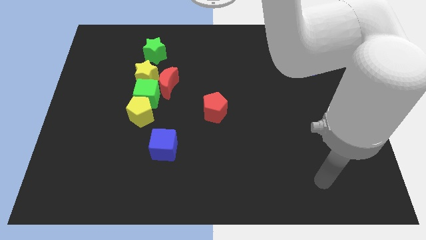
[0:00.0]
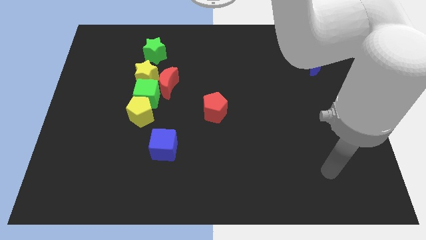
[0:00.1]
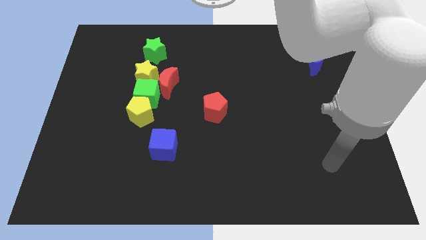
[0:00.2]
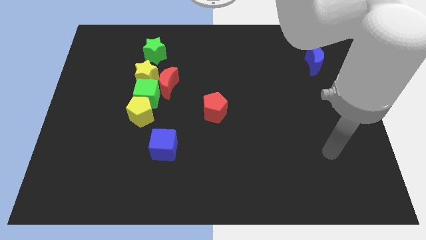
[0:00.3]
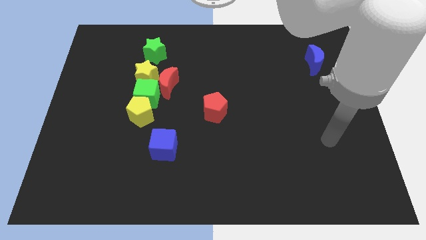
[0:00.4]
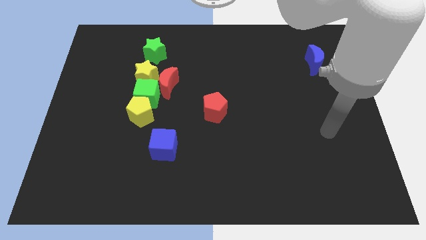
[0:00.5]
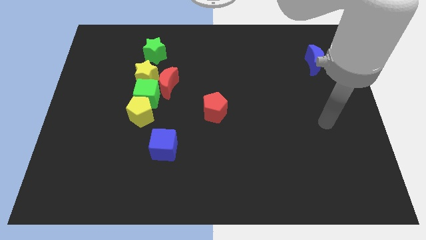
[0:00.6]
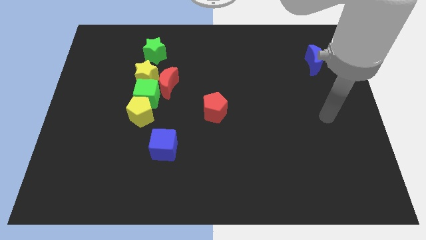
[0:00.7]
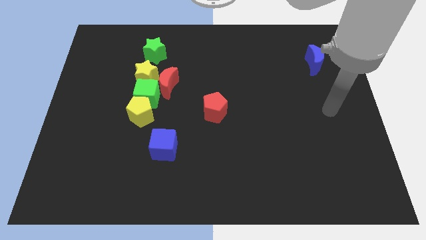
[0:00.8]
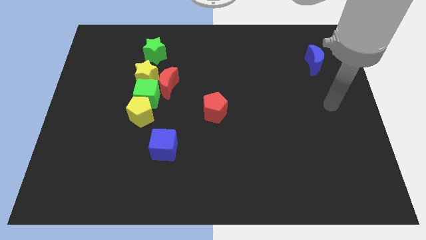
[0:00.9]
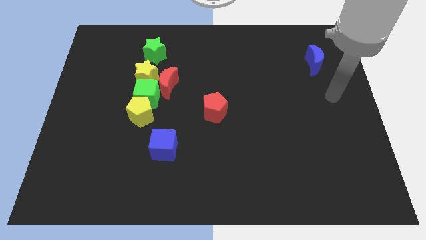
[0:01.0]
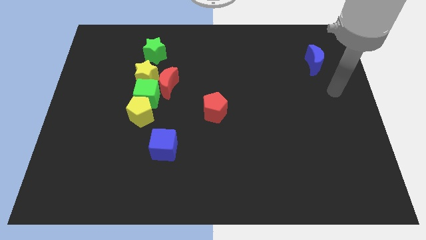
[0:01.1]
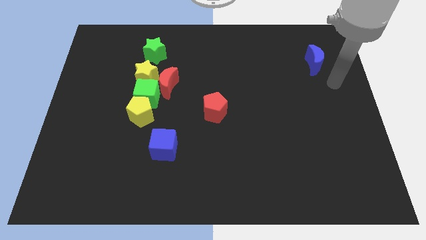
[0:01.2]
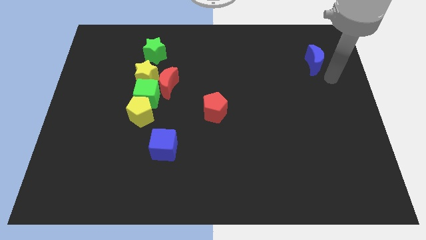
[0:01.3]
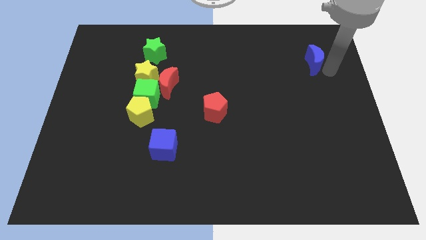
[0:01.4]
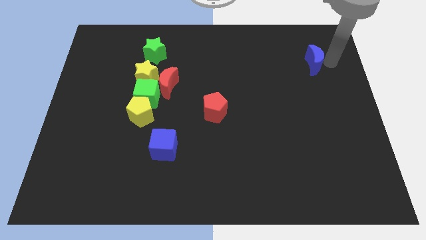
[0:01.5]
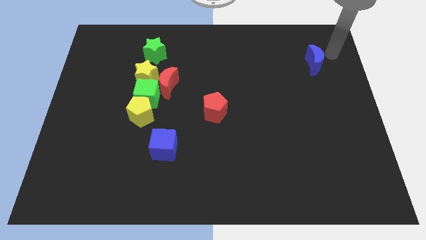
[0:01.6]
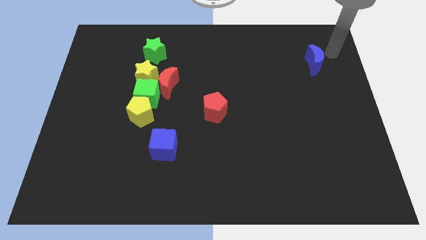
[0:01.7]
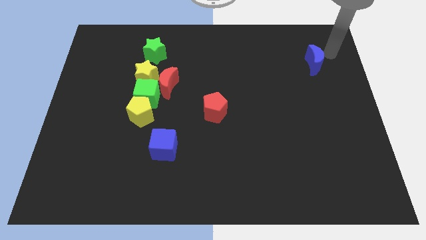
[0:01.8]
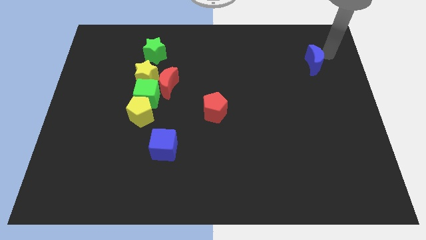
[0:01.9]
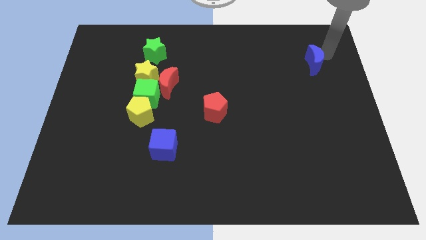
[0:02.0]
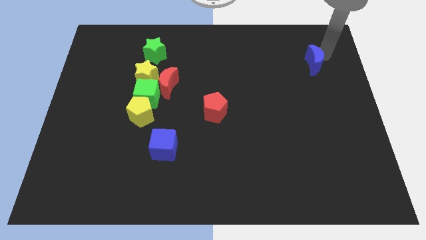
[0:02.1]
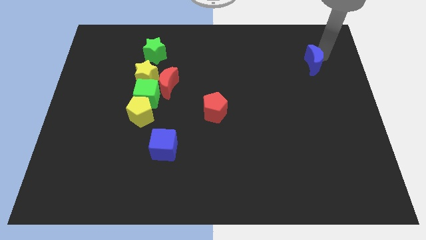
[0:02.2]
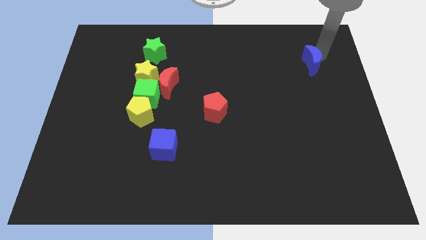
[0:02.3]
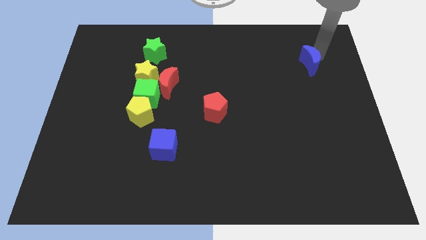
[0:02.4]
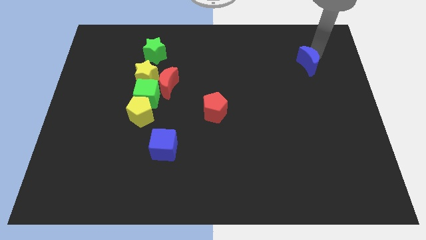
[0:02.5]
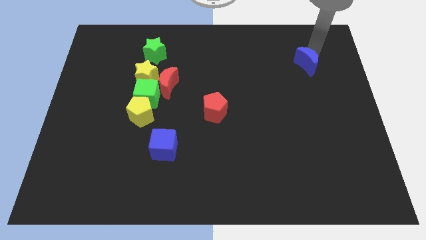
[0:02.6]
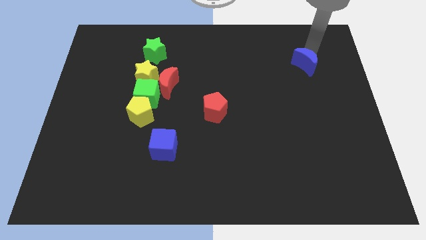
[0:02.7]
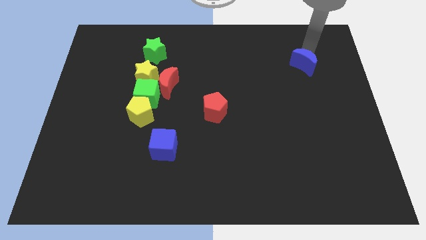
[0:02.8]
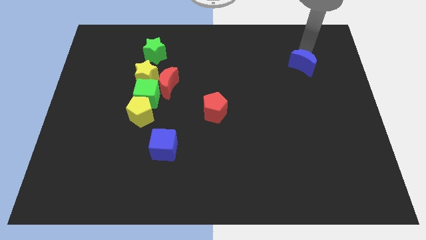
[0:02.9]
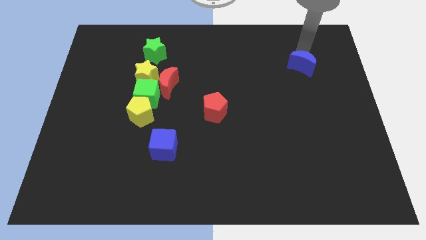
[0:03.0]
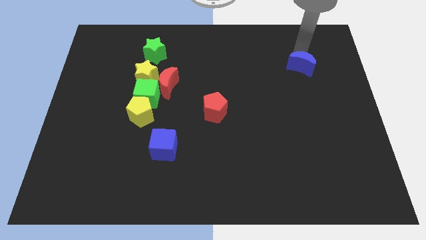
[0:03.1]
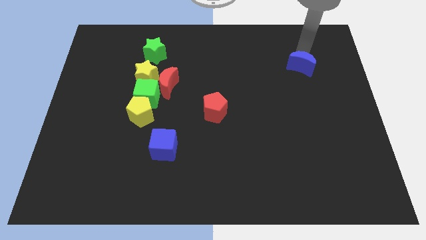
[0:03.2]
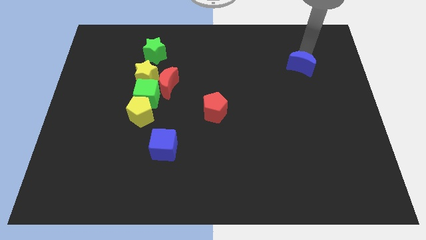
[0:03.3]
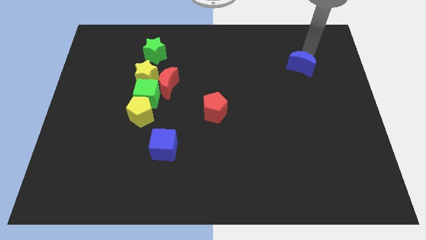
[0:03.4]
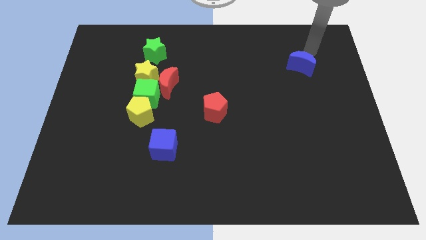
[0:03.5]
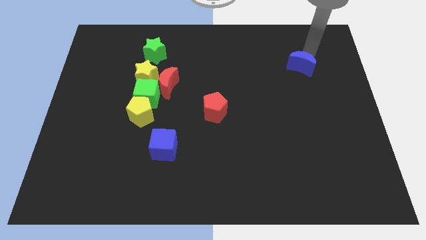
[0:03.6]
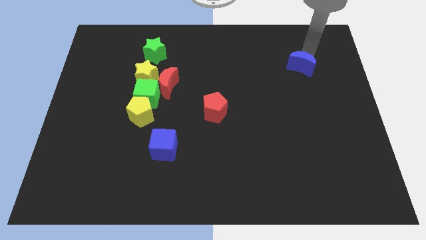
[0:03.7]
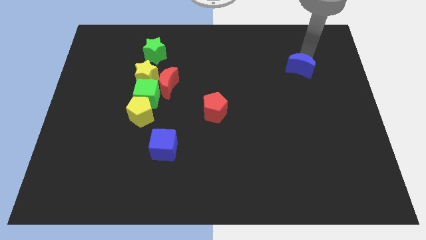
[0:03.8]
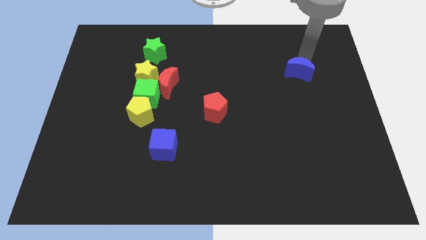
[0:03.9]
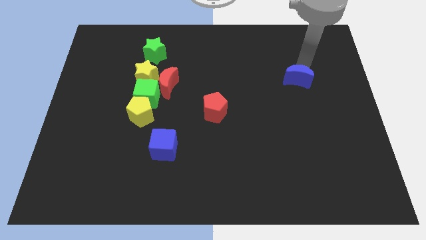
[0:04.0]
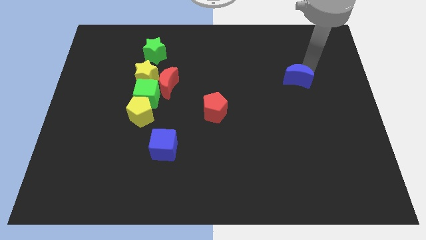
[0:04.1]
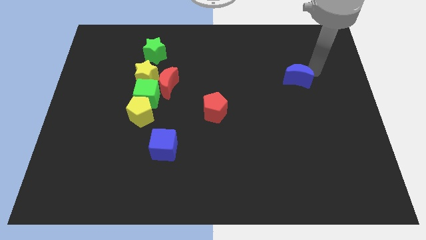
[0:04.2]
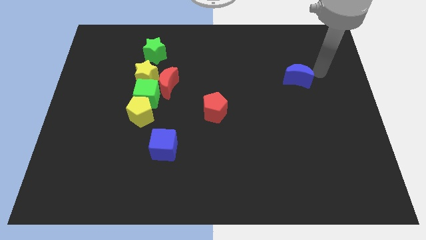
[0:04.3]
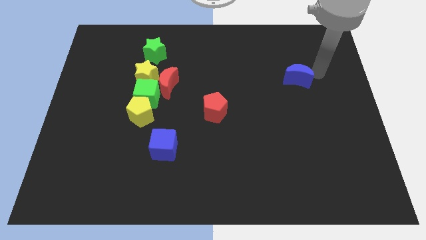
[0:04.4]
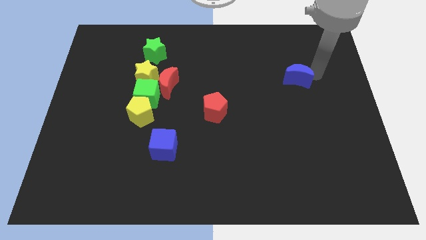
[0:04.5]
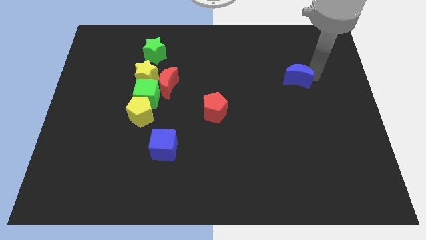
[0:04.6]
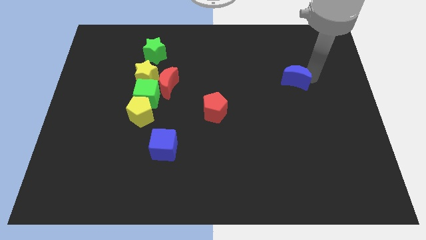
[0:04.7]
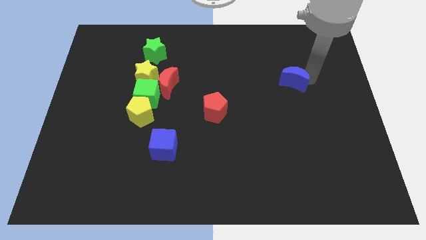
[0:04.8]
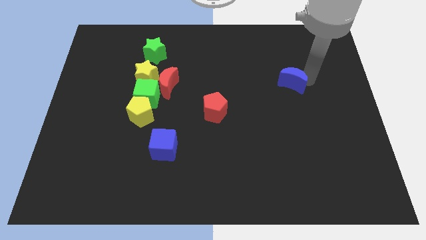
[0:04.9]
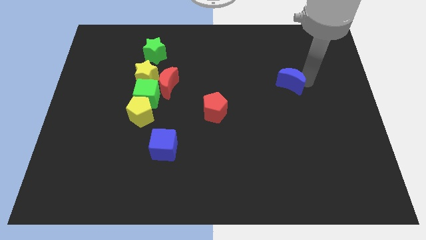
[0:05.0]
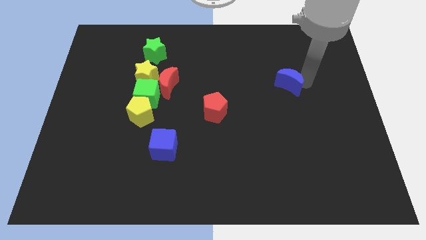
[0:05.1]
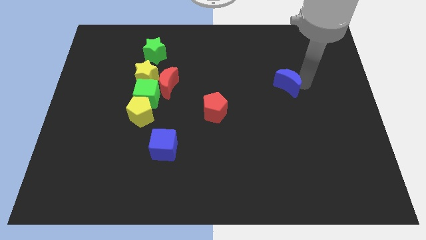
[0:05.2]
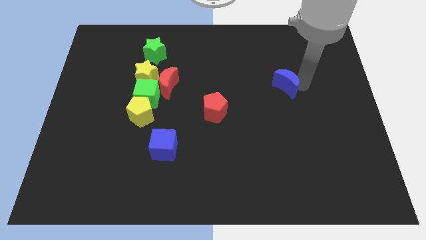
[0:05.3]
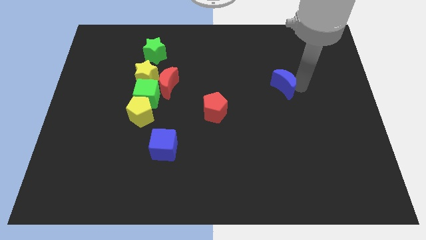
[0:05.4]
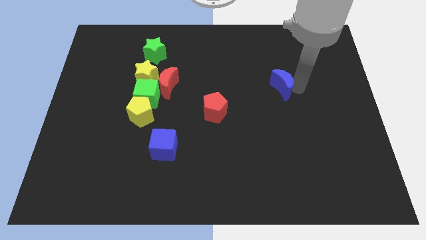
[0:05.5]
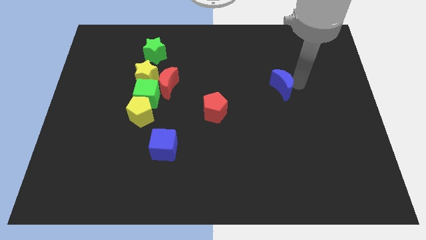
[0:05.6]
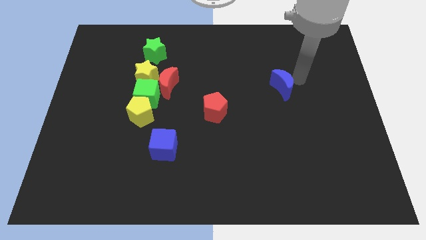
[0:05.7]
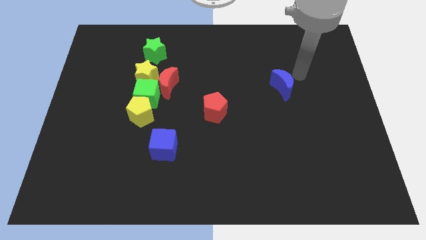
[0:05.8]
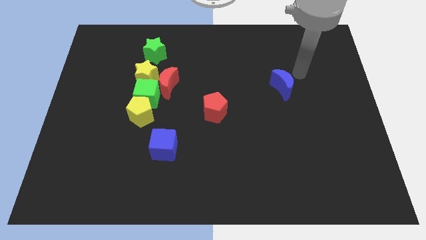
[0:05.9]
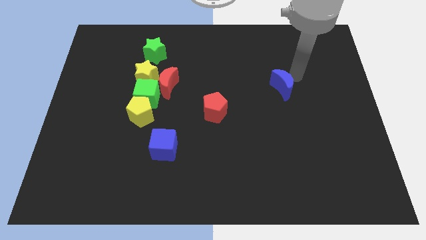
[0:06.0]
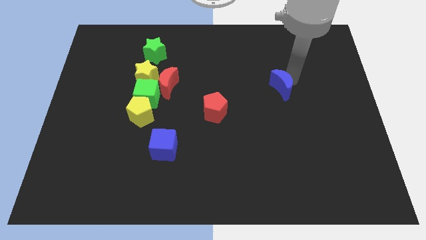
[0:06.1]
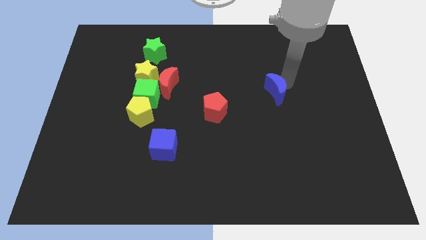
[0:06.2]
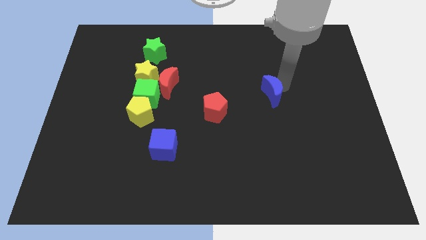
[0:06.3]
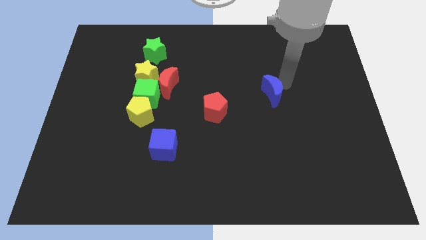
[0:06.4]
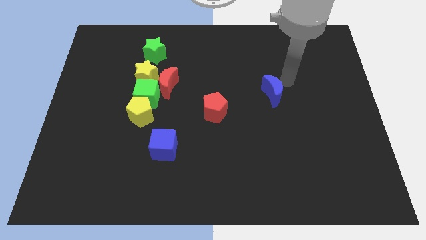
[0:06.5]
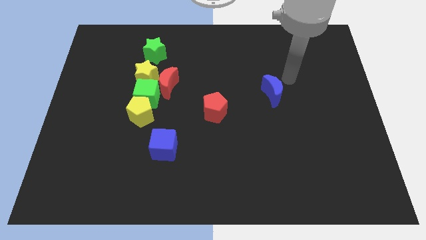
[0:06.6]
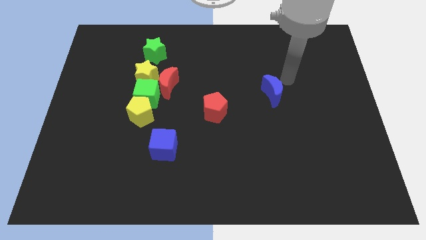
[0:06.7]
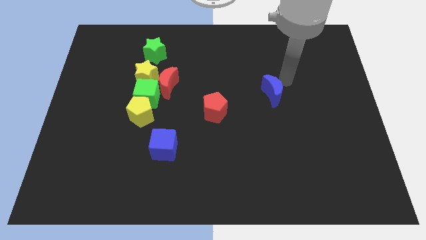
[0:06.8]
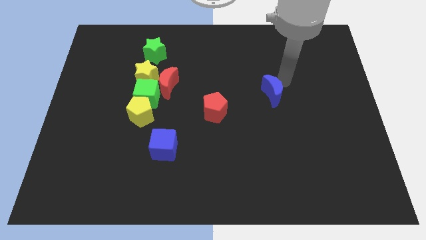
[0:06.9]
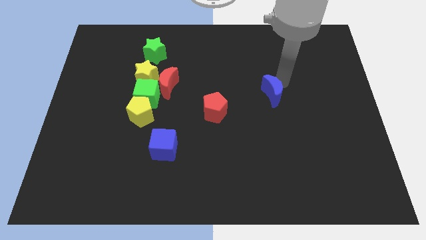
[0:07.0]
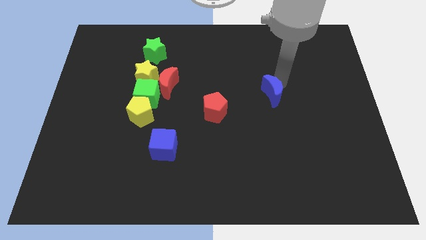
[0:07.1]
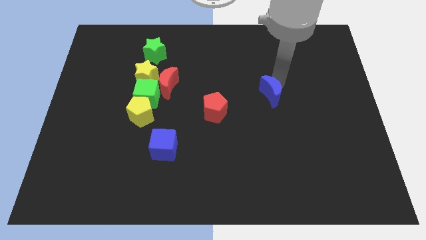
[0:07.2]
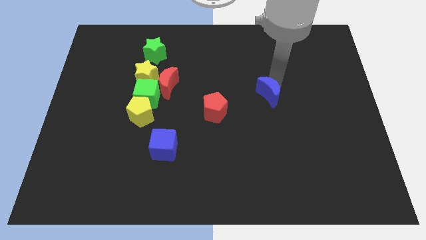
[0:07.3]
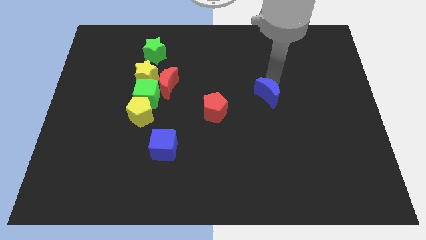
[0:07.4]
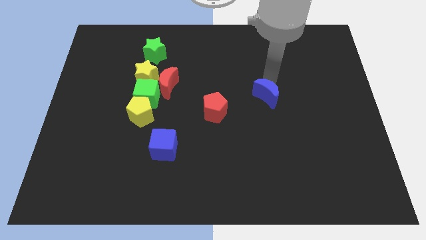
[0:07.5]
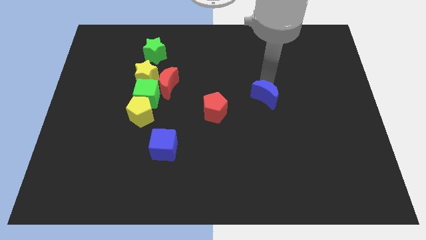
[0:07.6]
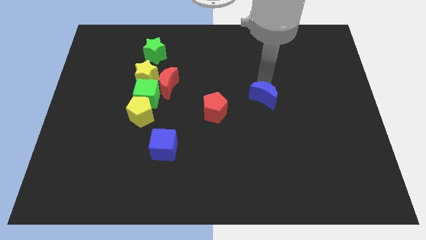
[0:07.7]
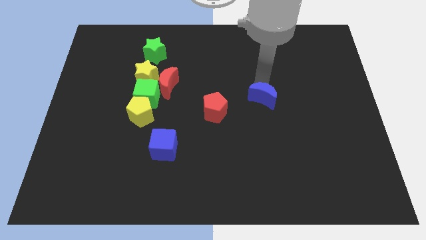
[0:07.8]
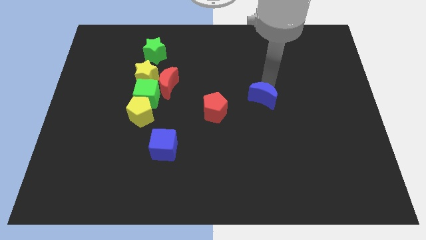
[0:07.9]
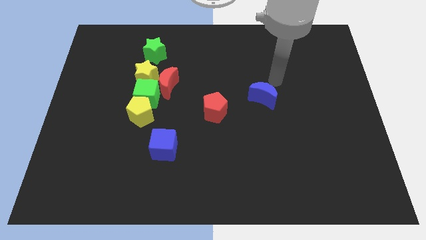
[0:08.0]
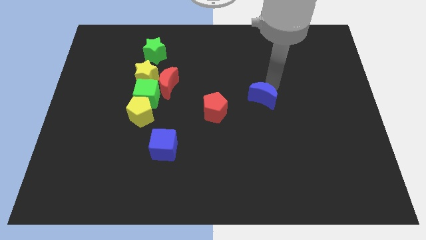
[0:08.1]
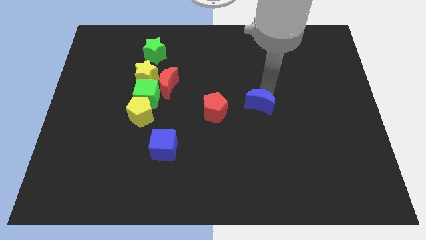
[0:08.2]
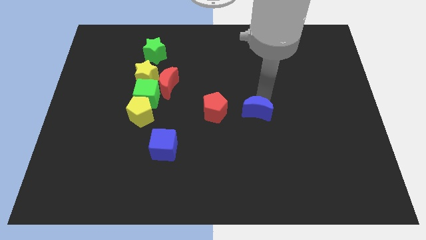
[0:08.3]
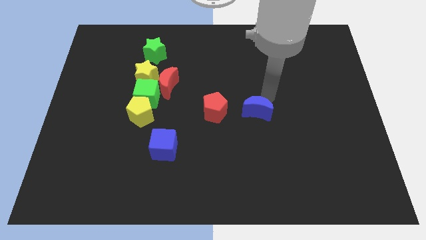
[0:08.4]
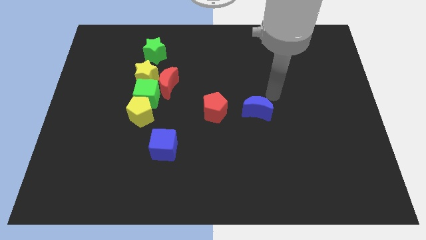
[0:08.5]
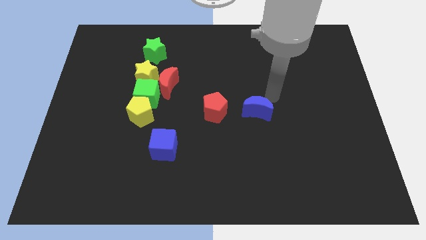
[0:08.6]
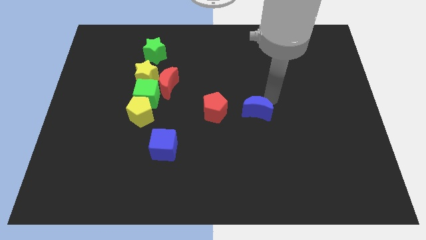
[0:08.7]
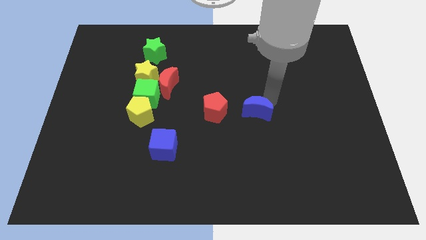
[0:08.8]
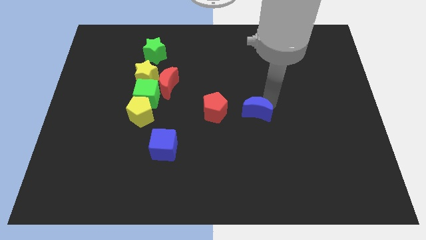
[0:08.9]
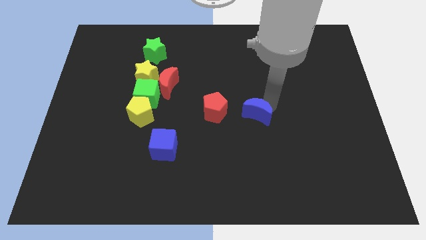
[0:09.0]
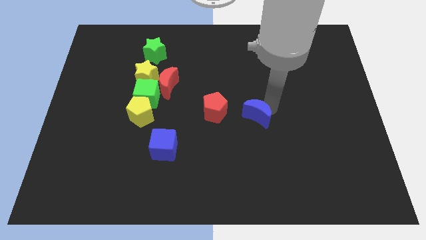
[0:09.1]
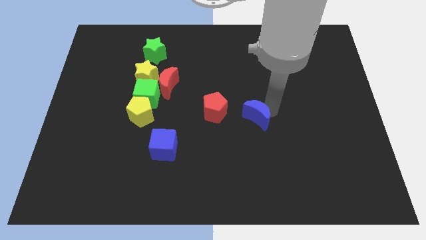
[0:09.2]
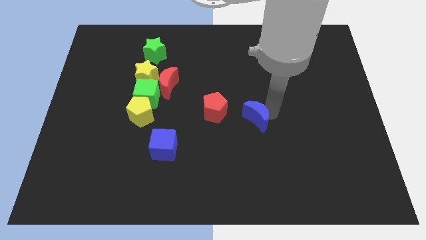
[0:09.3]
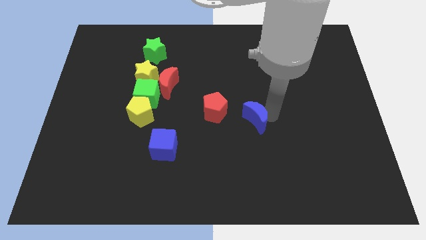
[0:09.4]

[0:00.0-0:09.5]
move the blue moon to the bottom right of the red pentagon
